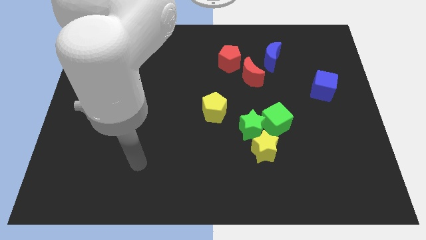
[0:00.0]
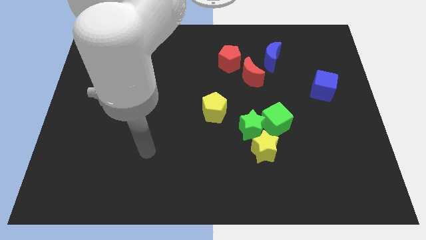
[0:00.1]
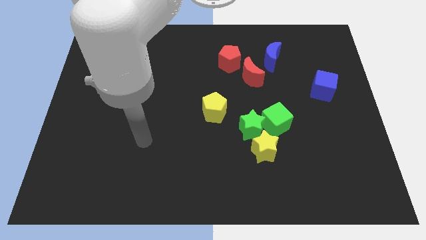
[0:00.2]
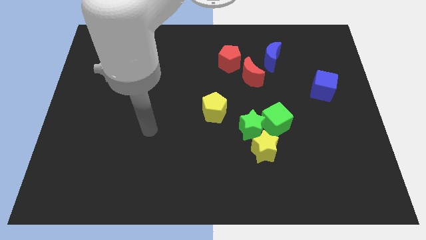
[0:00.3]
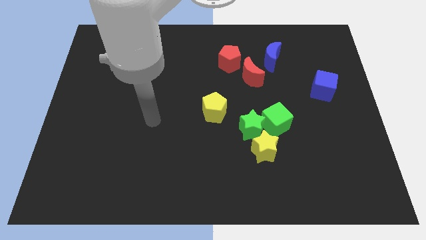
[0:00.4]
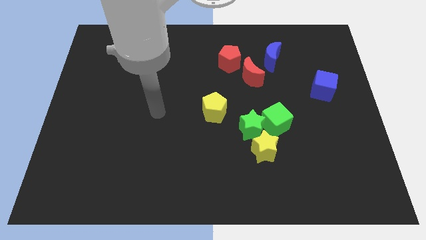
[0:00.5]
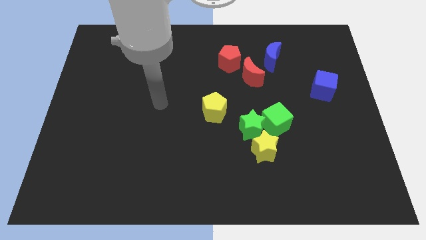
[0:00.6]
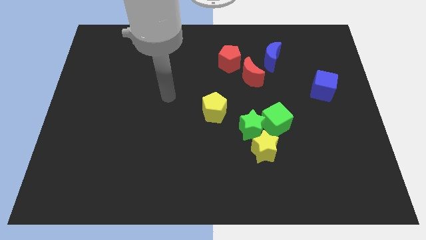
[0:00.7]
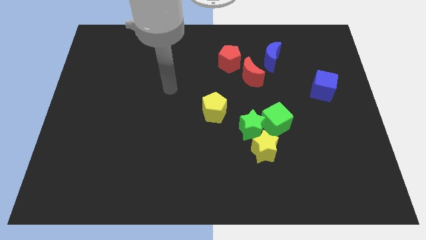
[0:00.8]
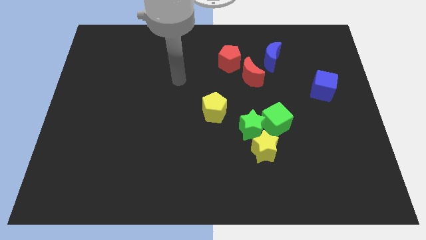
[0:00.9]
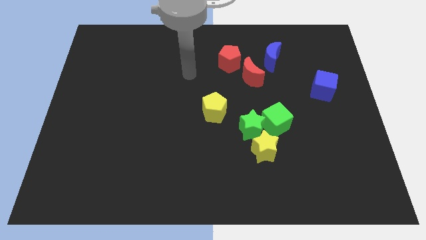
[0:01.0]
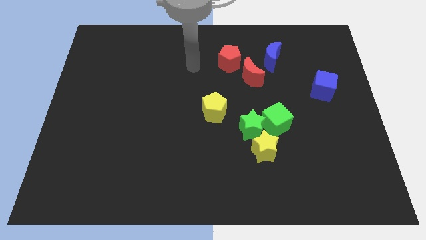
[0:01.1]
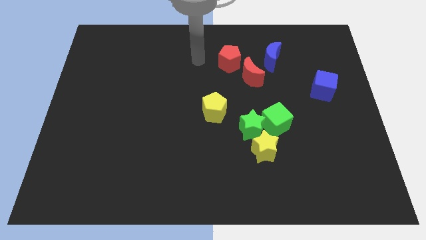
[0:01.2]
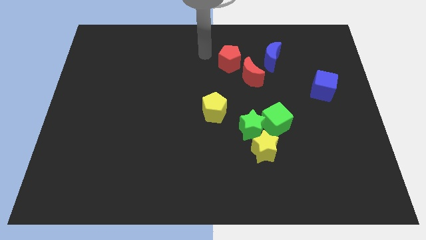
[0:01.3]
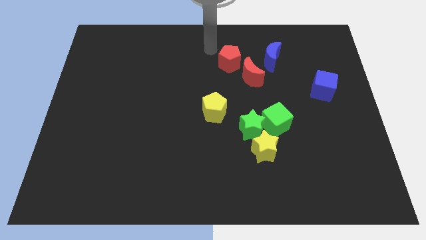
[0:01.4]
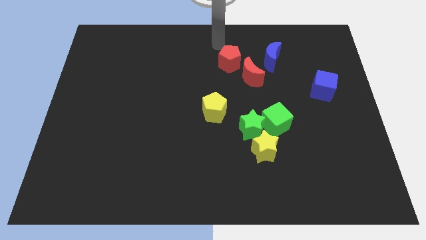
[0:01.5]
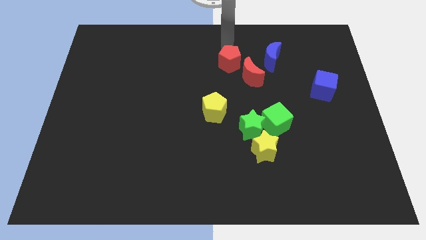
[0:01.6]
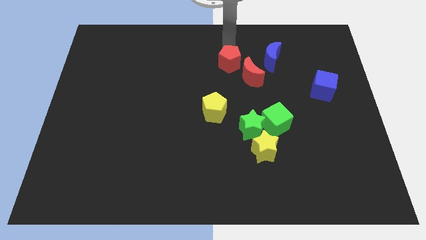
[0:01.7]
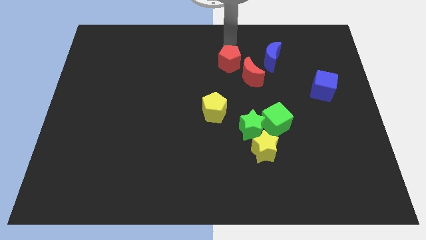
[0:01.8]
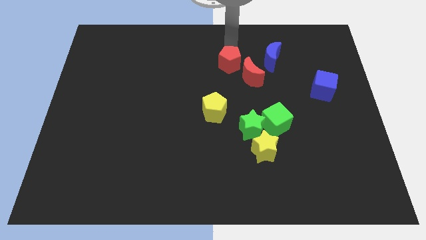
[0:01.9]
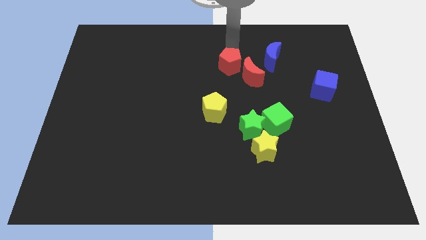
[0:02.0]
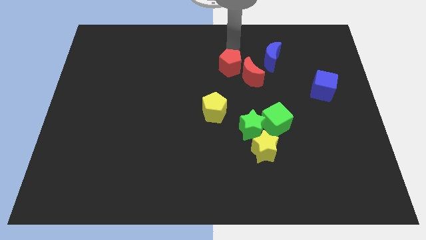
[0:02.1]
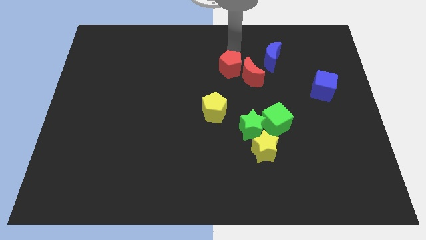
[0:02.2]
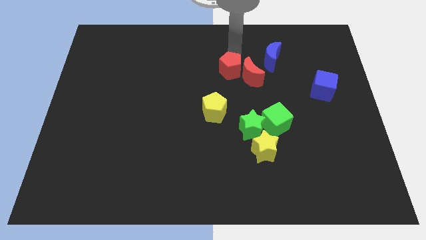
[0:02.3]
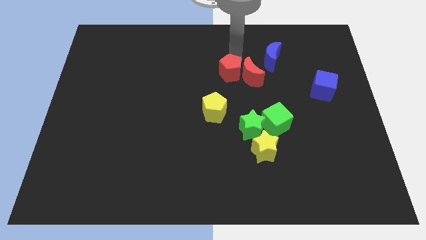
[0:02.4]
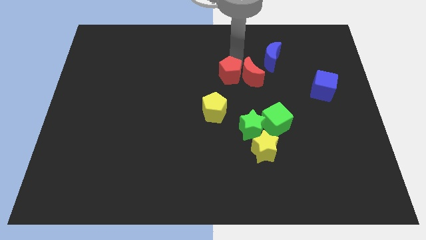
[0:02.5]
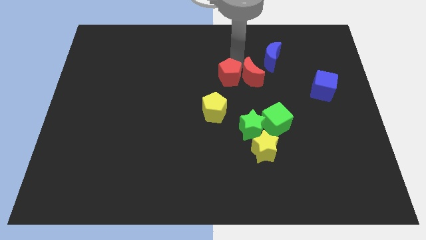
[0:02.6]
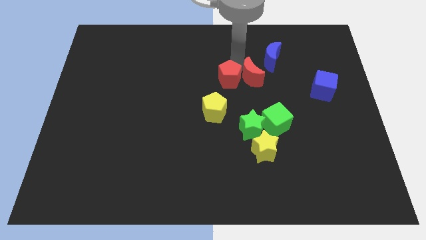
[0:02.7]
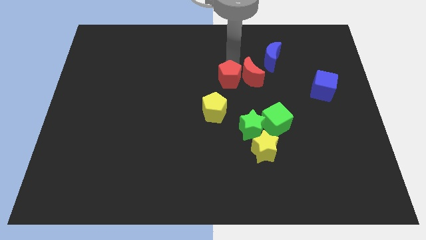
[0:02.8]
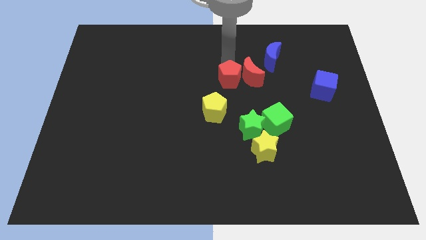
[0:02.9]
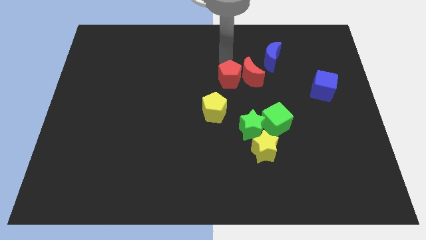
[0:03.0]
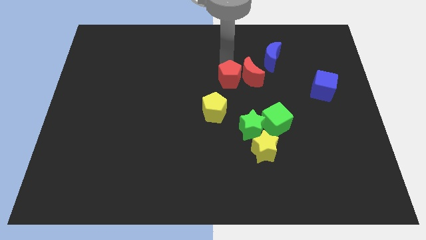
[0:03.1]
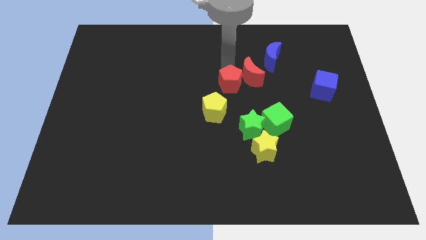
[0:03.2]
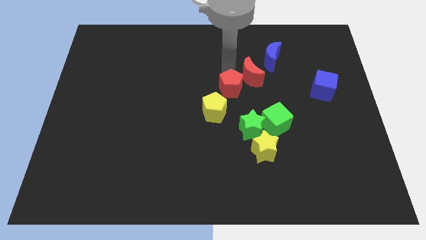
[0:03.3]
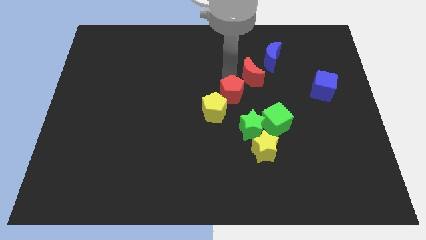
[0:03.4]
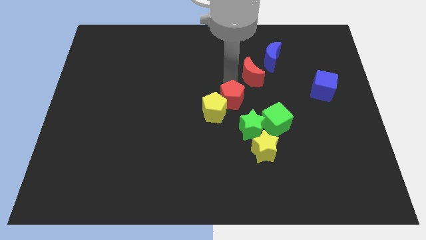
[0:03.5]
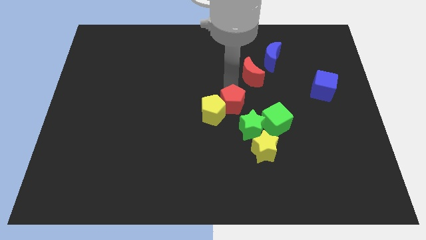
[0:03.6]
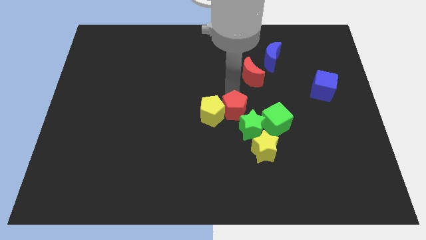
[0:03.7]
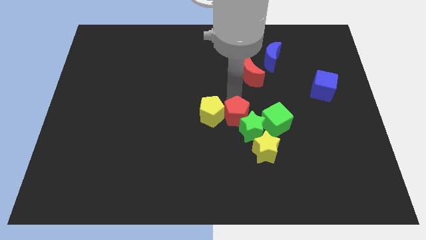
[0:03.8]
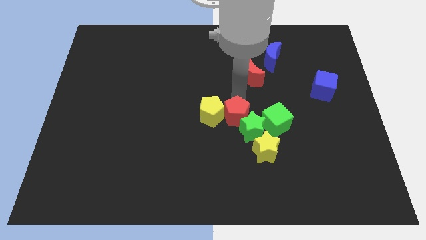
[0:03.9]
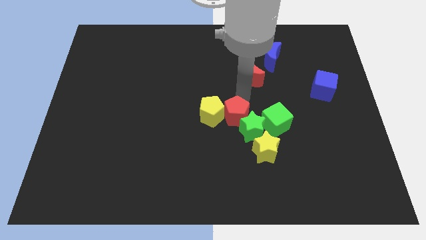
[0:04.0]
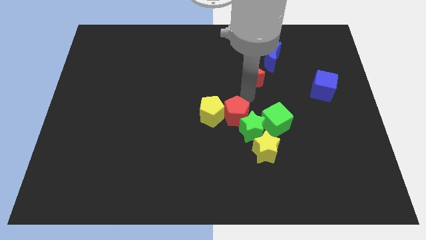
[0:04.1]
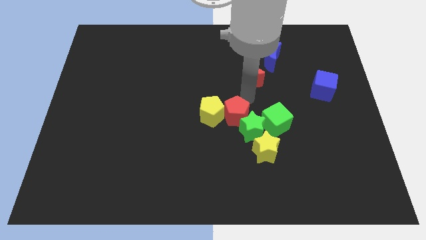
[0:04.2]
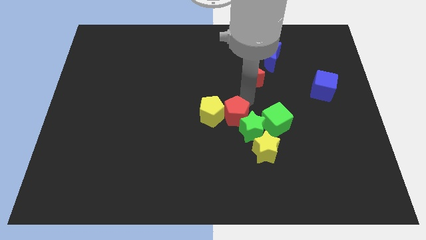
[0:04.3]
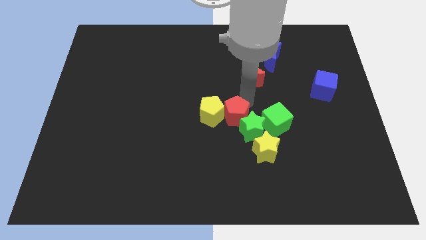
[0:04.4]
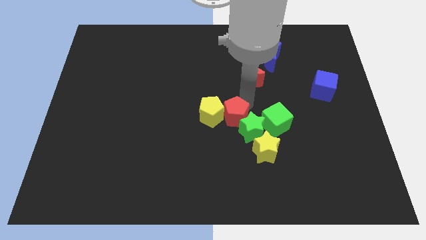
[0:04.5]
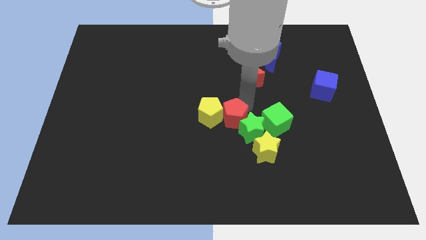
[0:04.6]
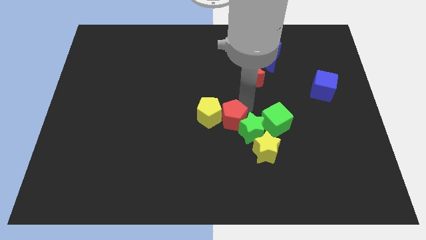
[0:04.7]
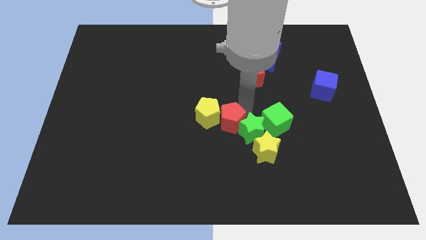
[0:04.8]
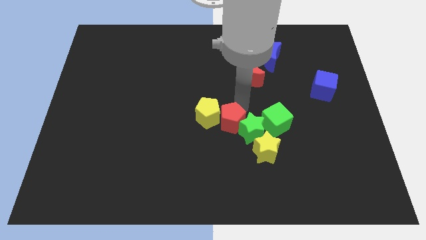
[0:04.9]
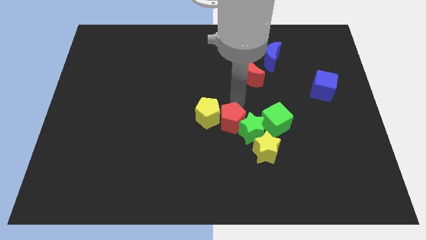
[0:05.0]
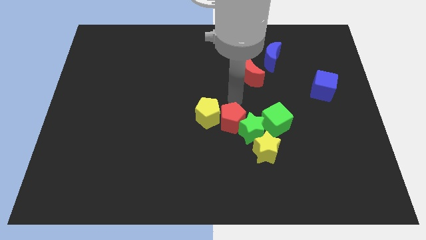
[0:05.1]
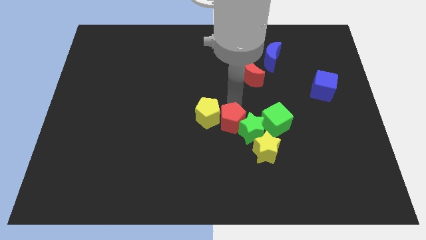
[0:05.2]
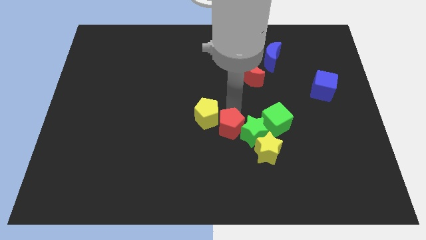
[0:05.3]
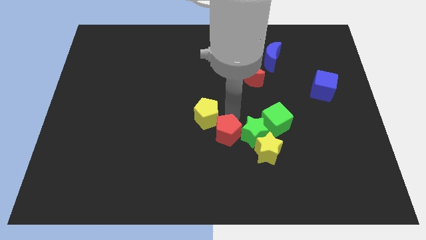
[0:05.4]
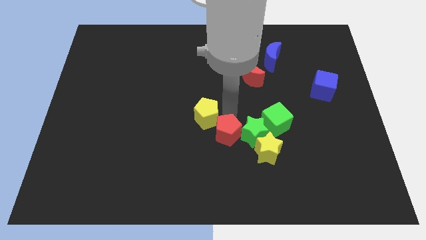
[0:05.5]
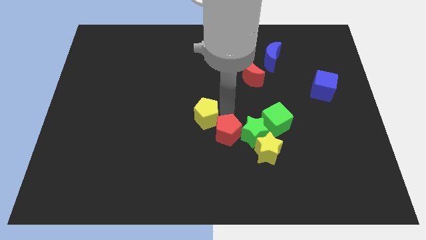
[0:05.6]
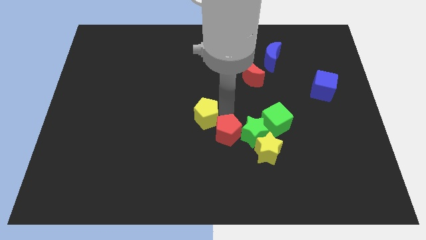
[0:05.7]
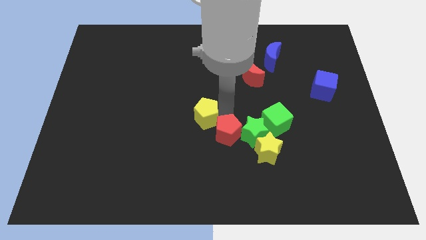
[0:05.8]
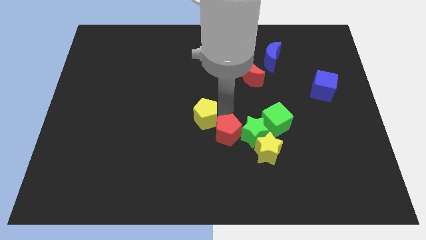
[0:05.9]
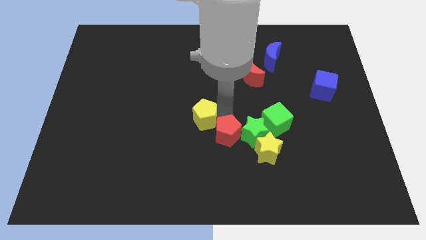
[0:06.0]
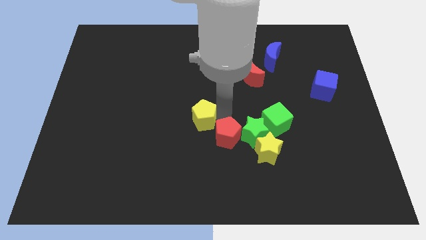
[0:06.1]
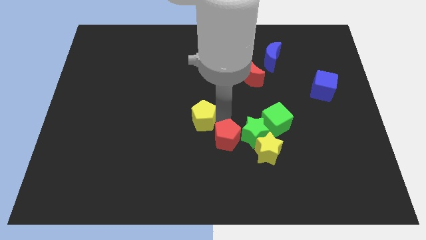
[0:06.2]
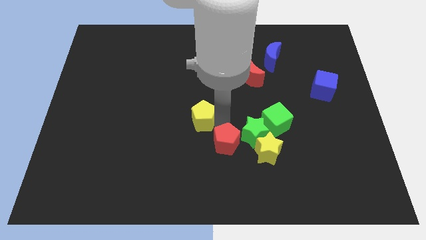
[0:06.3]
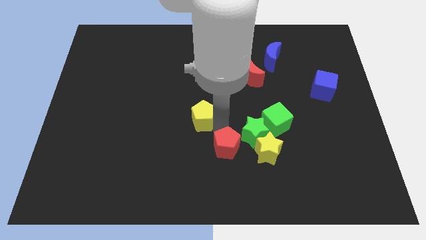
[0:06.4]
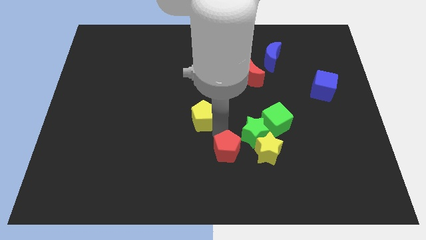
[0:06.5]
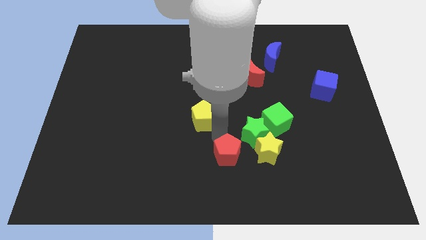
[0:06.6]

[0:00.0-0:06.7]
put the red pentagon to the bottom side
